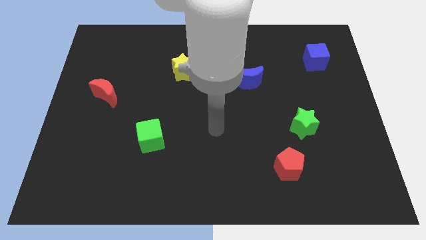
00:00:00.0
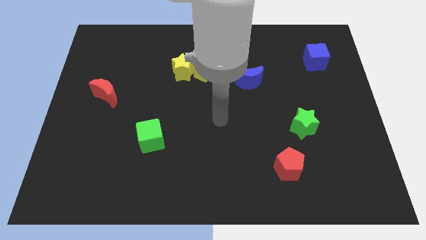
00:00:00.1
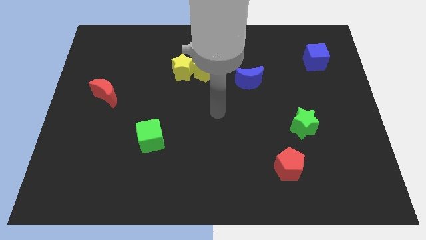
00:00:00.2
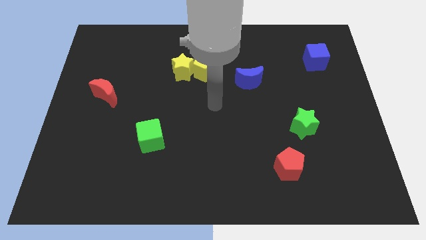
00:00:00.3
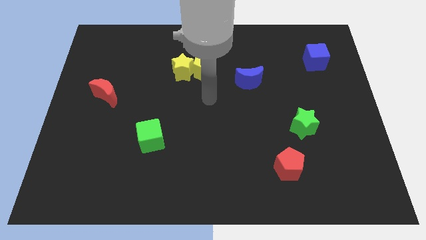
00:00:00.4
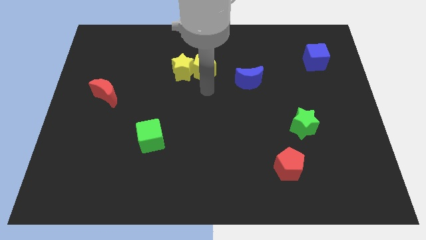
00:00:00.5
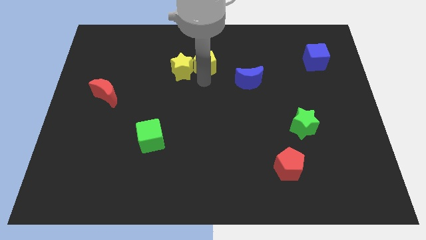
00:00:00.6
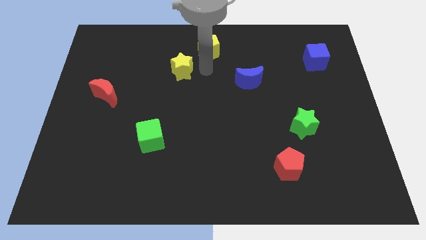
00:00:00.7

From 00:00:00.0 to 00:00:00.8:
move the yellow star away from the yellow pentagon

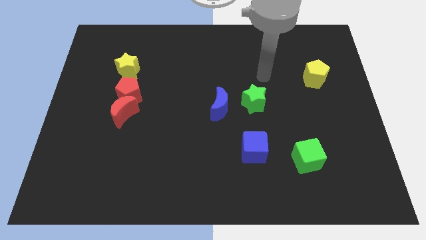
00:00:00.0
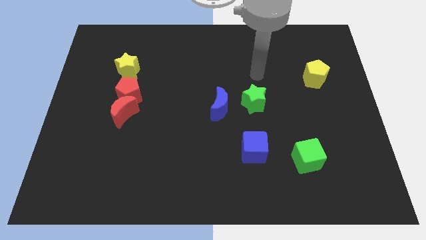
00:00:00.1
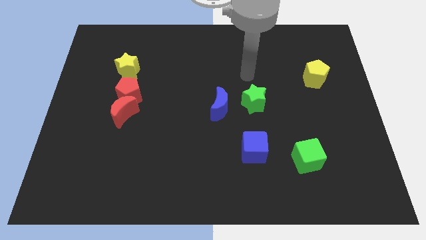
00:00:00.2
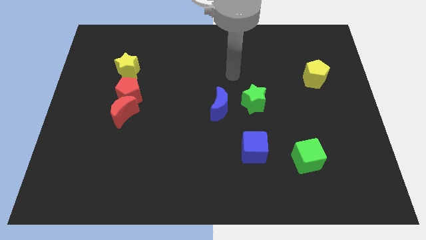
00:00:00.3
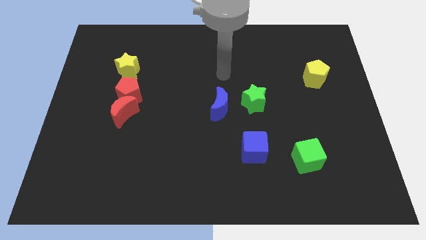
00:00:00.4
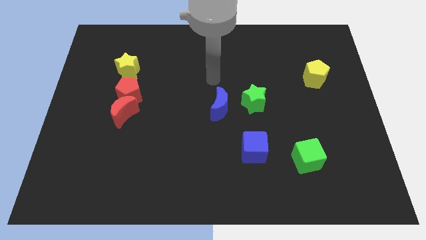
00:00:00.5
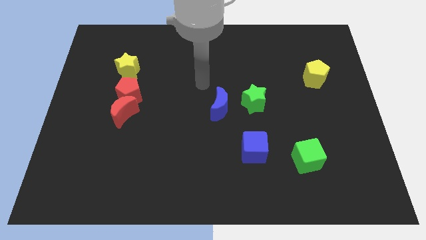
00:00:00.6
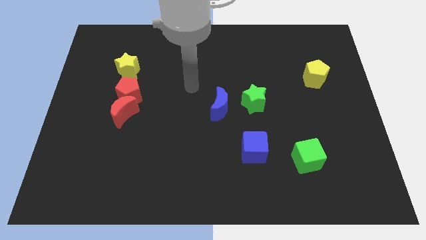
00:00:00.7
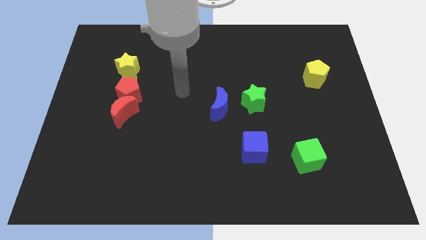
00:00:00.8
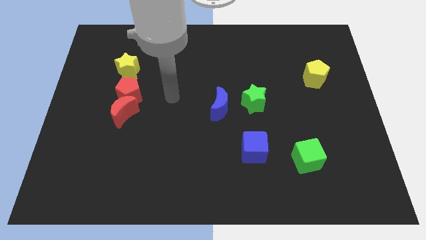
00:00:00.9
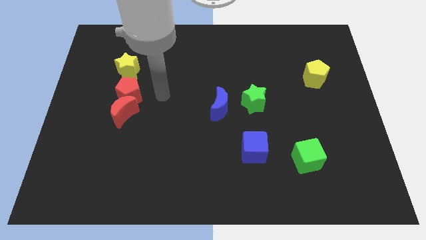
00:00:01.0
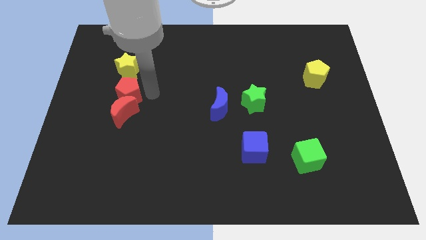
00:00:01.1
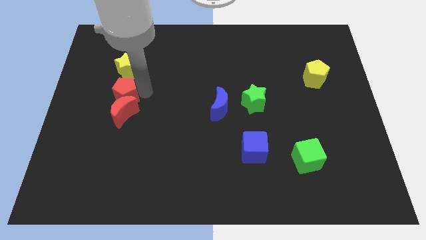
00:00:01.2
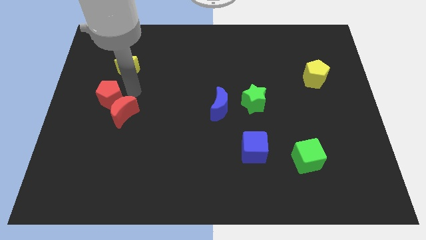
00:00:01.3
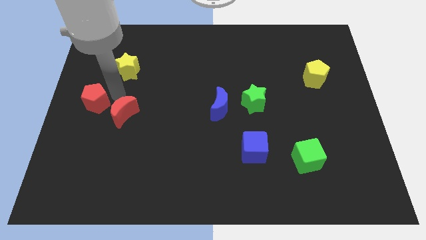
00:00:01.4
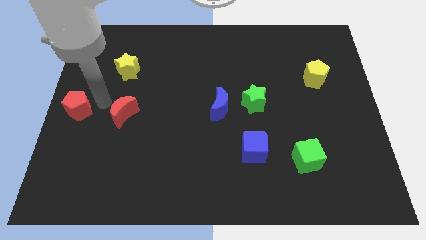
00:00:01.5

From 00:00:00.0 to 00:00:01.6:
move the red moon away from the red pentagon

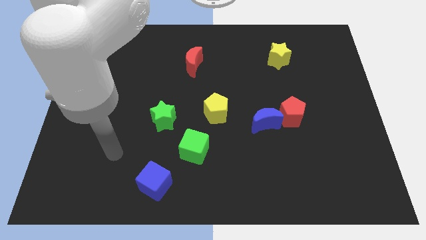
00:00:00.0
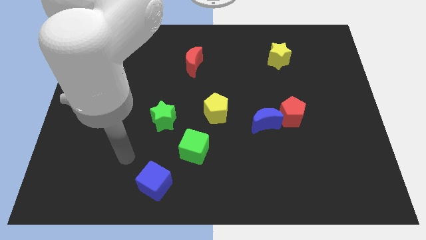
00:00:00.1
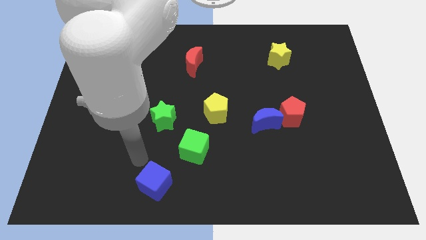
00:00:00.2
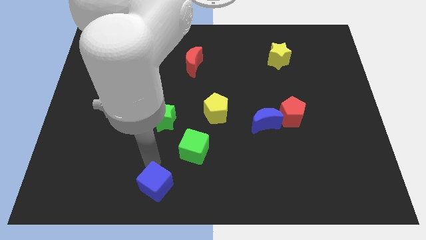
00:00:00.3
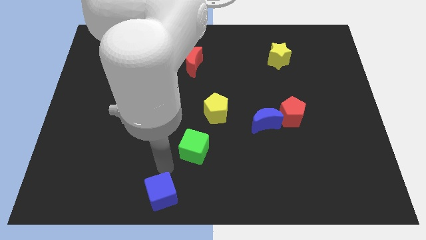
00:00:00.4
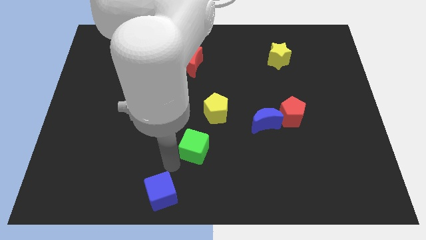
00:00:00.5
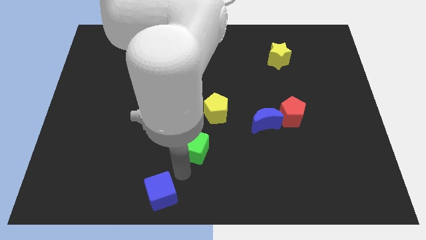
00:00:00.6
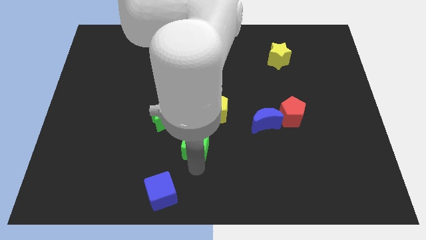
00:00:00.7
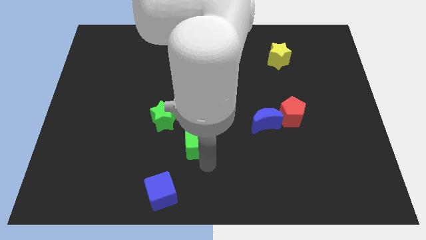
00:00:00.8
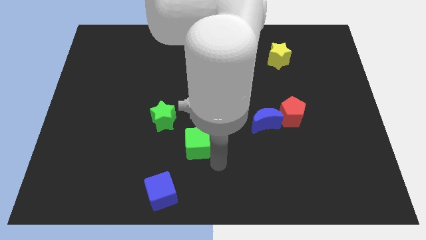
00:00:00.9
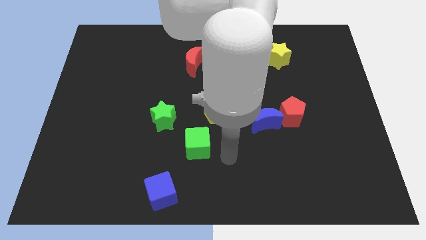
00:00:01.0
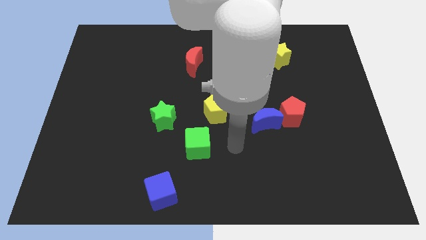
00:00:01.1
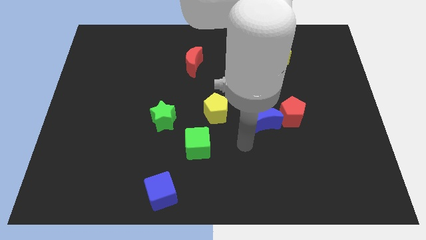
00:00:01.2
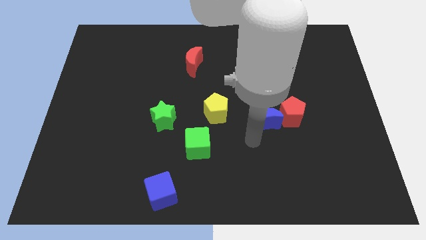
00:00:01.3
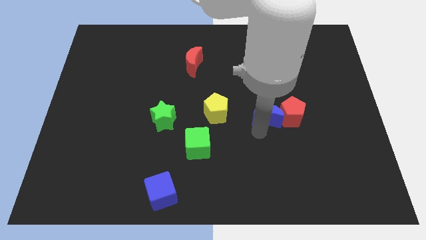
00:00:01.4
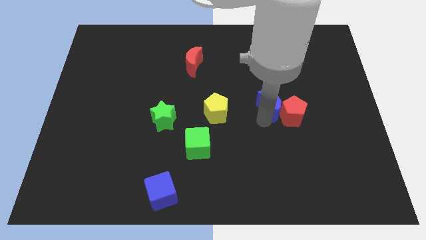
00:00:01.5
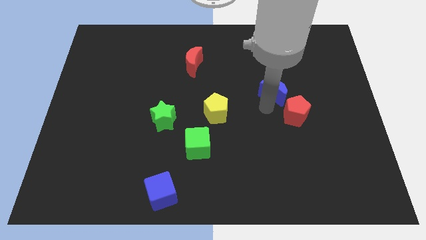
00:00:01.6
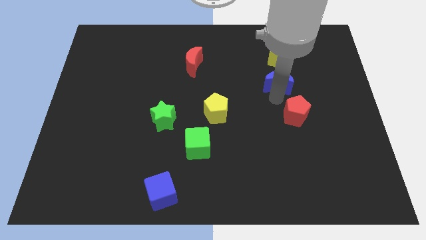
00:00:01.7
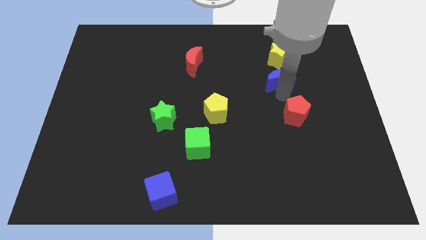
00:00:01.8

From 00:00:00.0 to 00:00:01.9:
separate the red pentagon from the blue moon

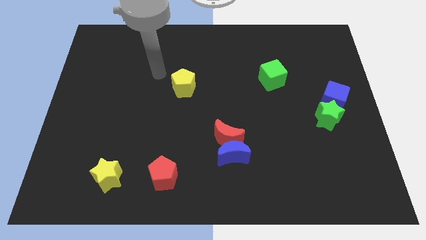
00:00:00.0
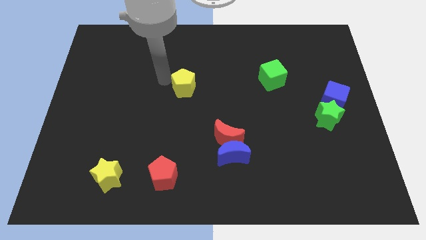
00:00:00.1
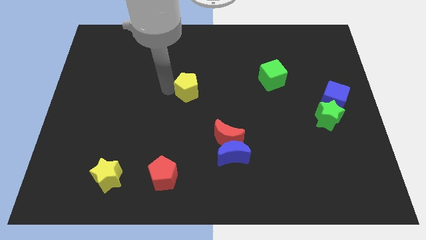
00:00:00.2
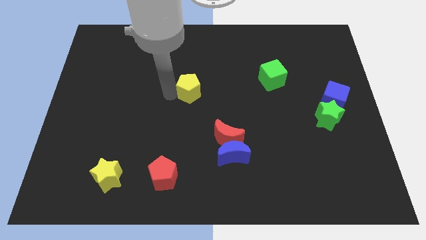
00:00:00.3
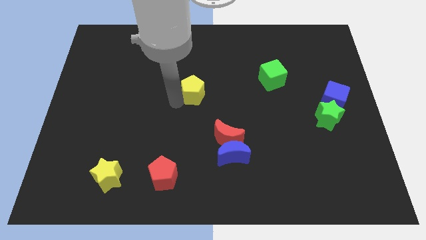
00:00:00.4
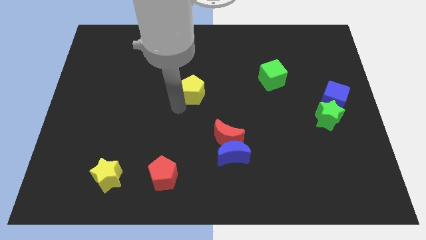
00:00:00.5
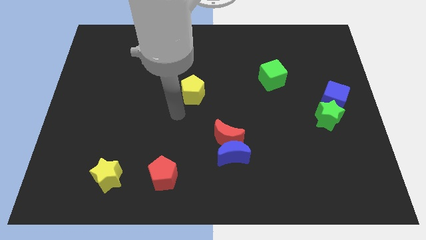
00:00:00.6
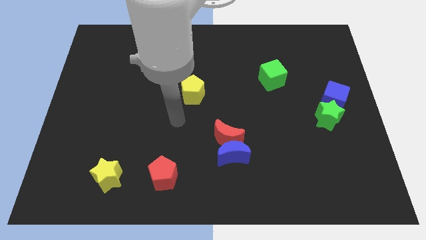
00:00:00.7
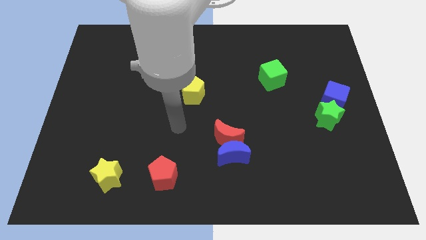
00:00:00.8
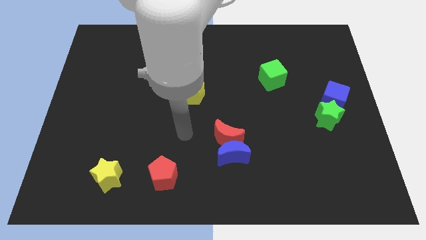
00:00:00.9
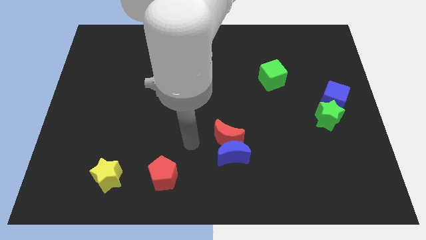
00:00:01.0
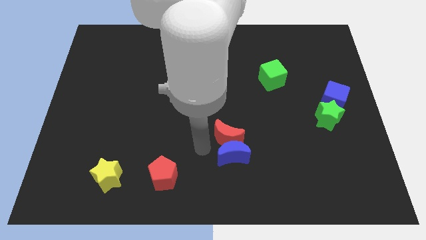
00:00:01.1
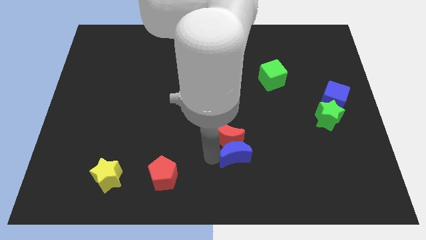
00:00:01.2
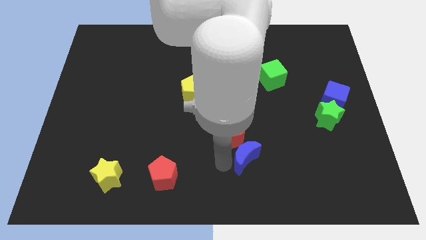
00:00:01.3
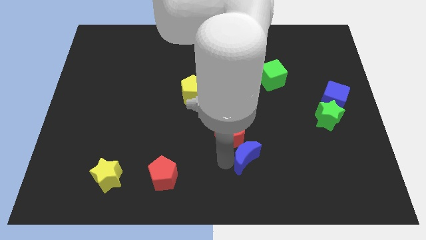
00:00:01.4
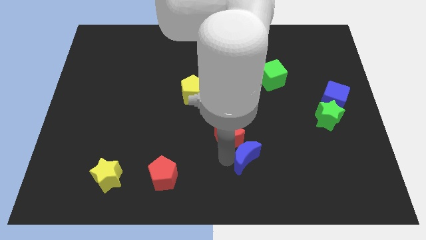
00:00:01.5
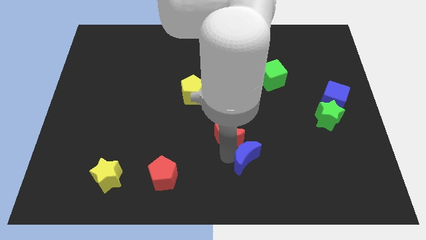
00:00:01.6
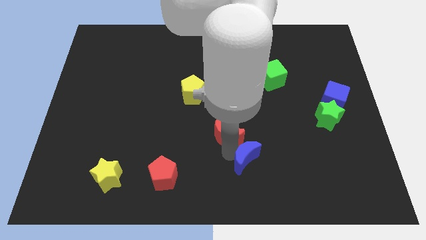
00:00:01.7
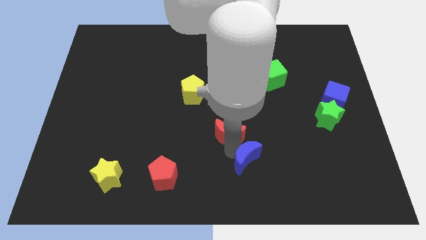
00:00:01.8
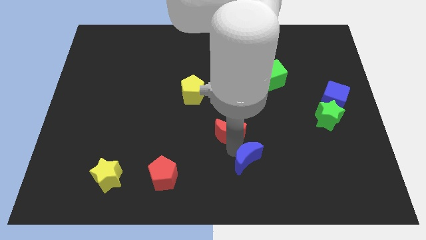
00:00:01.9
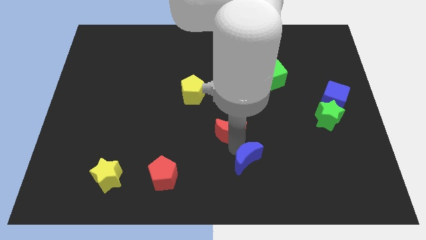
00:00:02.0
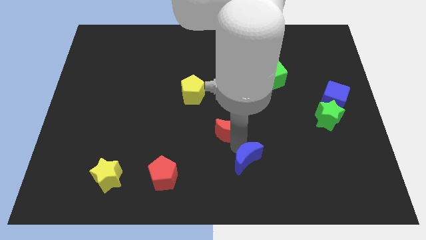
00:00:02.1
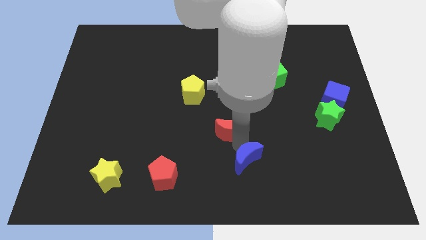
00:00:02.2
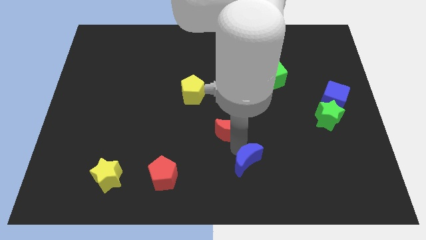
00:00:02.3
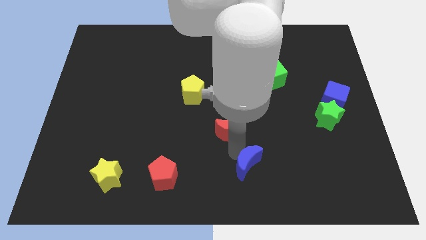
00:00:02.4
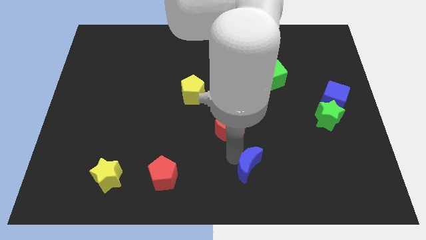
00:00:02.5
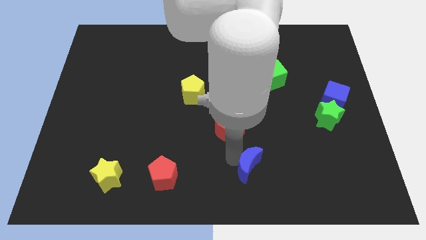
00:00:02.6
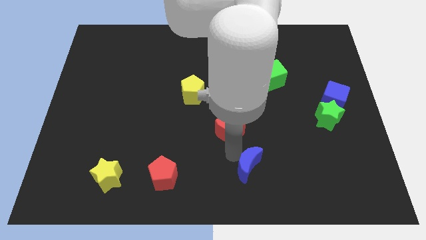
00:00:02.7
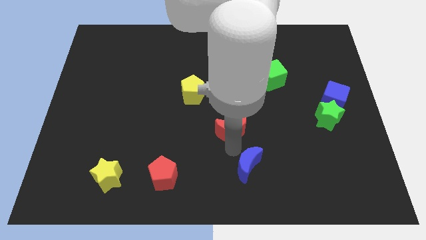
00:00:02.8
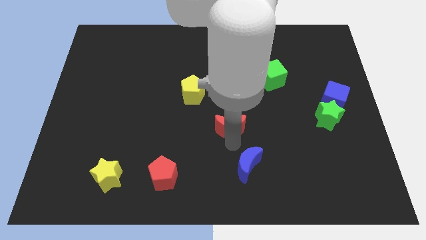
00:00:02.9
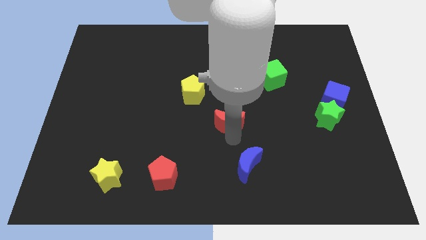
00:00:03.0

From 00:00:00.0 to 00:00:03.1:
separate the red moon from the blue moon

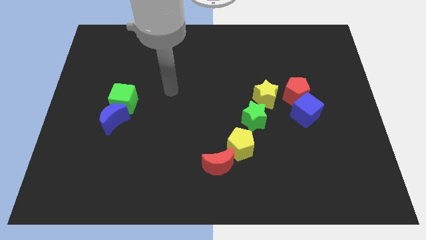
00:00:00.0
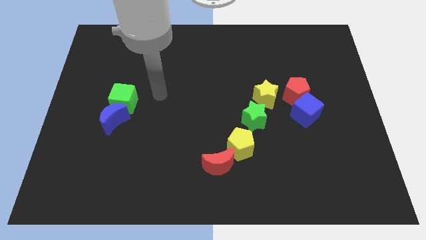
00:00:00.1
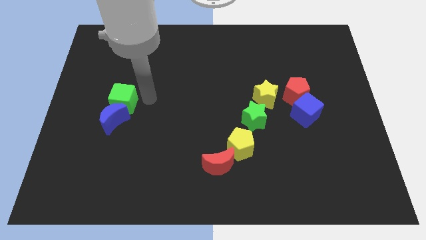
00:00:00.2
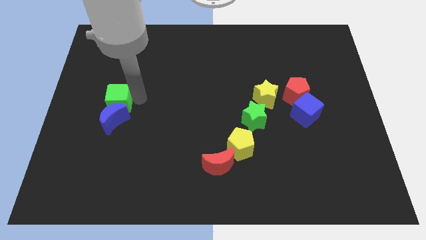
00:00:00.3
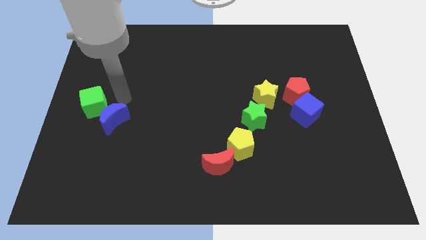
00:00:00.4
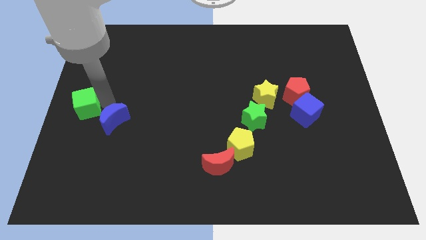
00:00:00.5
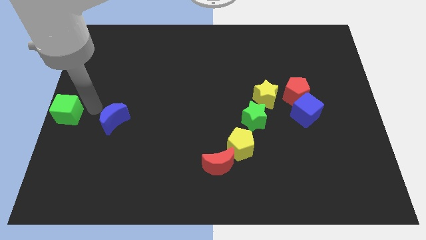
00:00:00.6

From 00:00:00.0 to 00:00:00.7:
separate the blue moon from the green cube

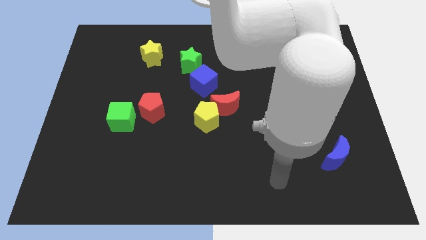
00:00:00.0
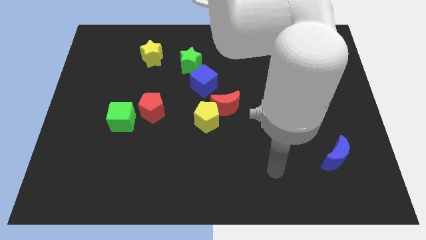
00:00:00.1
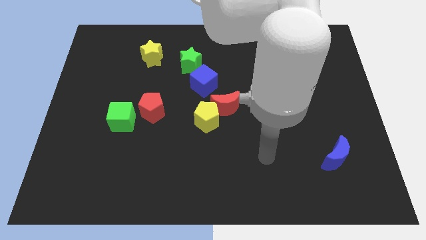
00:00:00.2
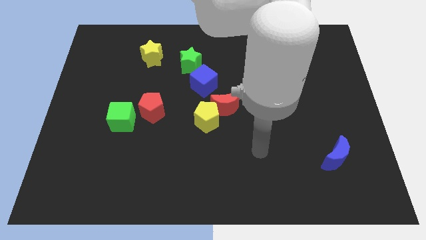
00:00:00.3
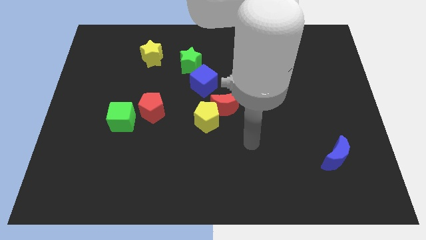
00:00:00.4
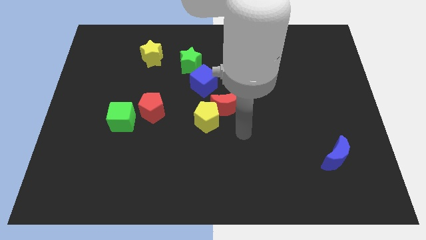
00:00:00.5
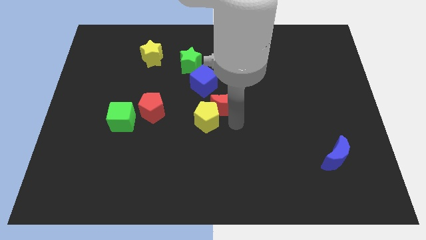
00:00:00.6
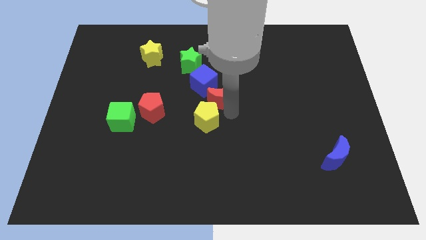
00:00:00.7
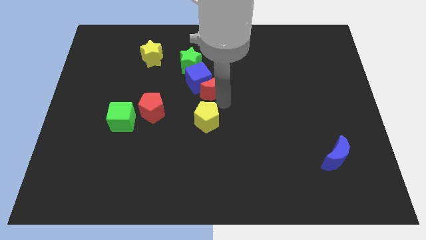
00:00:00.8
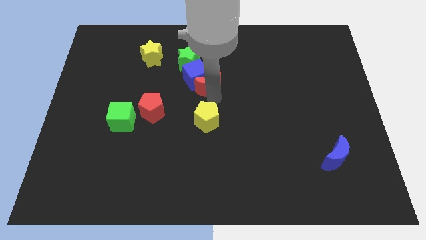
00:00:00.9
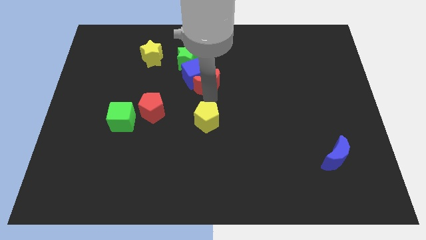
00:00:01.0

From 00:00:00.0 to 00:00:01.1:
move the yellow pentagon away from the red moon
